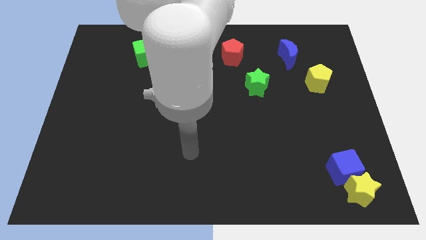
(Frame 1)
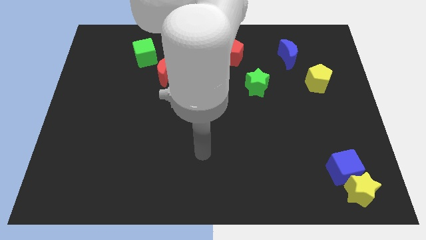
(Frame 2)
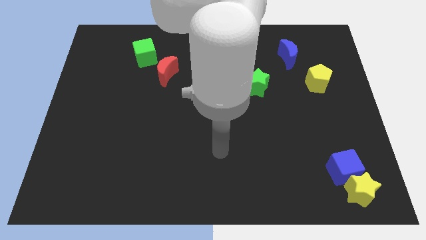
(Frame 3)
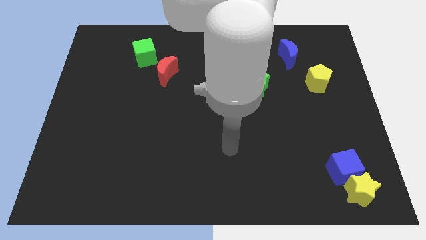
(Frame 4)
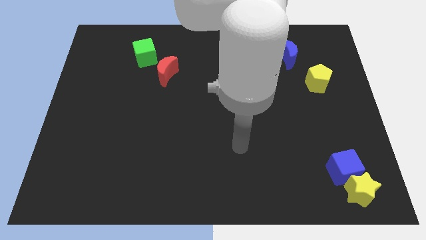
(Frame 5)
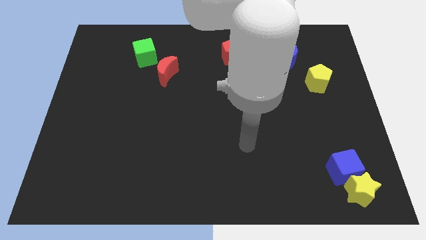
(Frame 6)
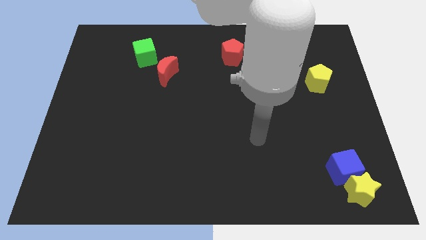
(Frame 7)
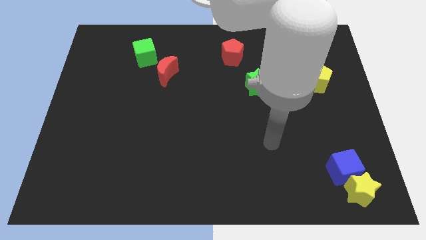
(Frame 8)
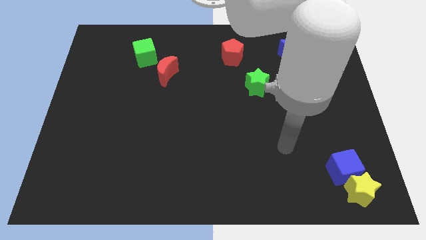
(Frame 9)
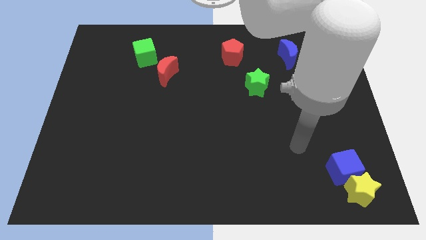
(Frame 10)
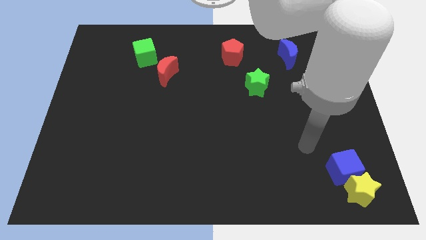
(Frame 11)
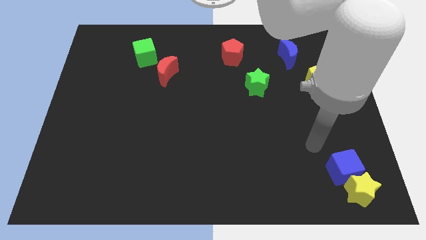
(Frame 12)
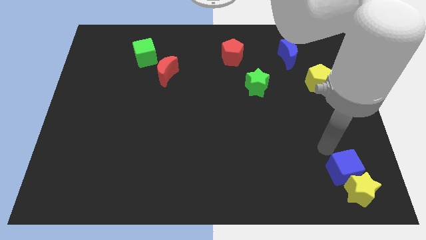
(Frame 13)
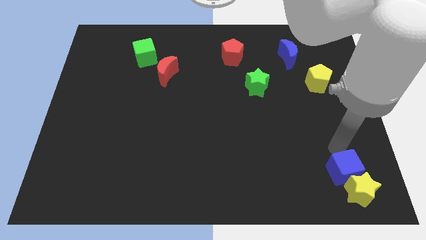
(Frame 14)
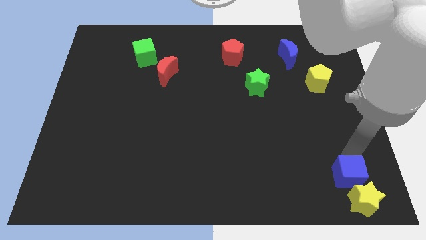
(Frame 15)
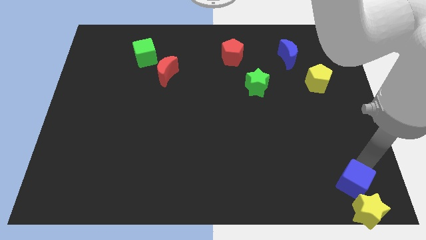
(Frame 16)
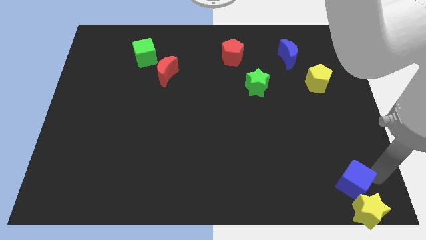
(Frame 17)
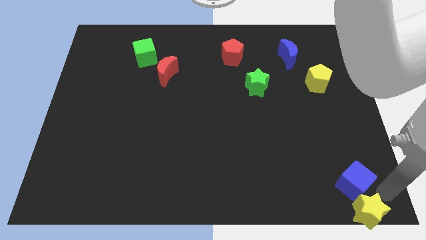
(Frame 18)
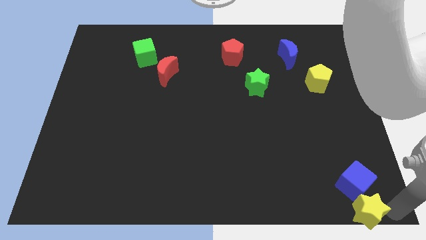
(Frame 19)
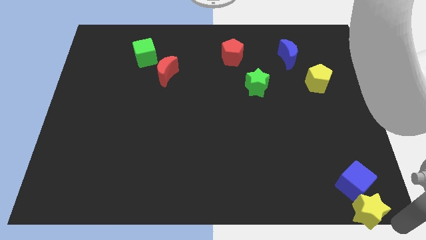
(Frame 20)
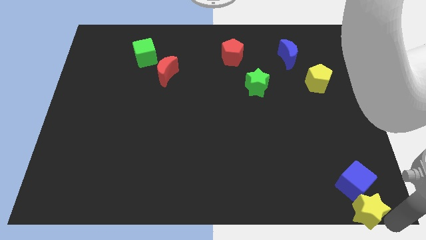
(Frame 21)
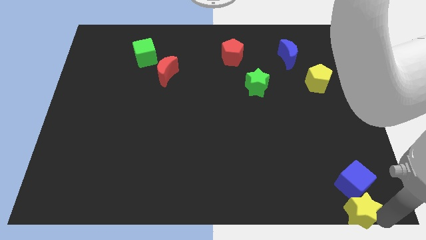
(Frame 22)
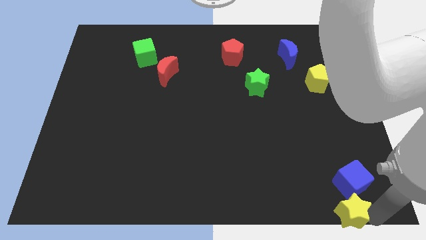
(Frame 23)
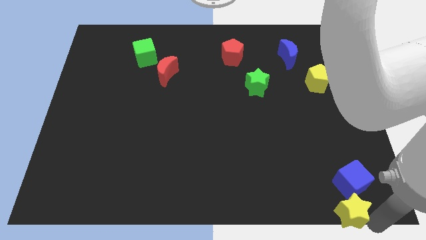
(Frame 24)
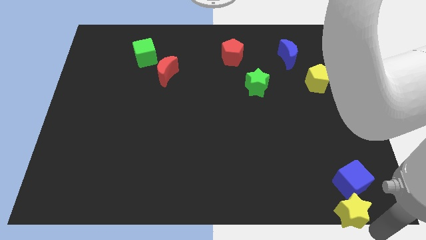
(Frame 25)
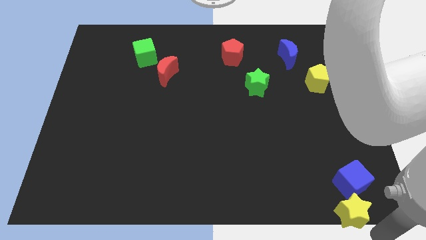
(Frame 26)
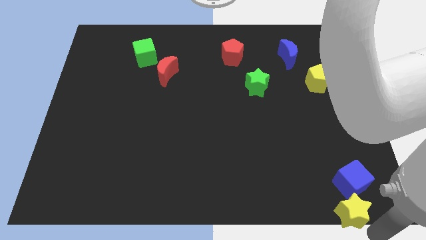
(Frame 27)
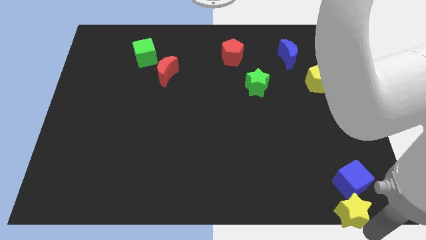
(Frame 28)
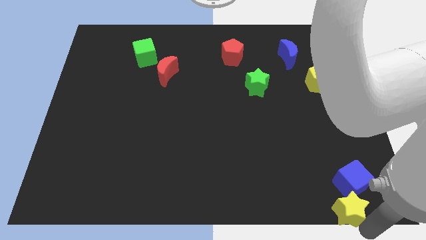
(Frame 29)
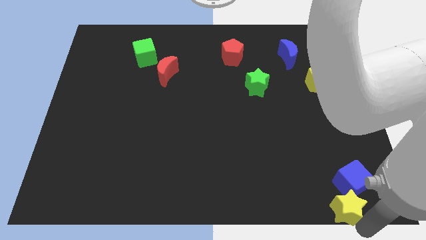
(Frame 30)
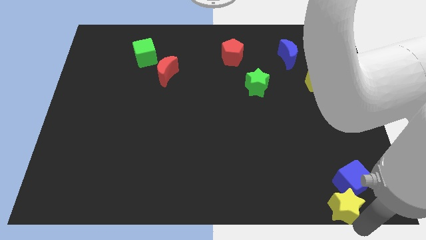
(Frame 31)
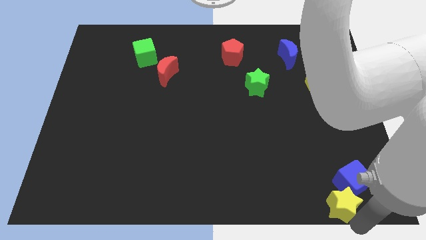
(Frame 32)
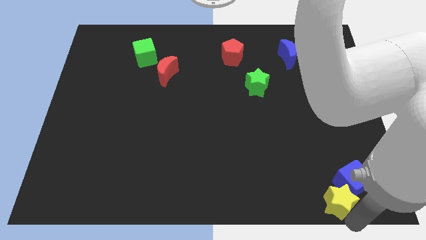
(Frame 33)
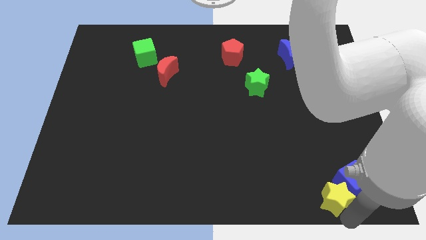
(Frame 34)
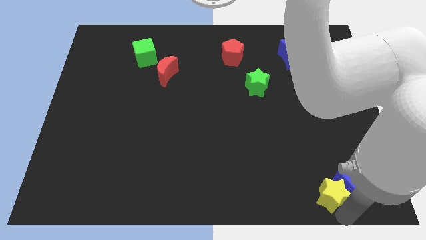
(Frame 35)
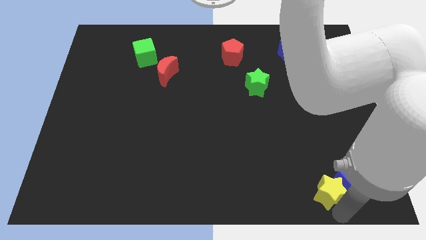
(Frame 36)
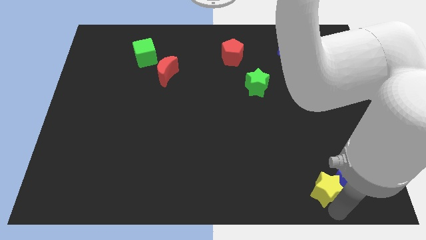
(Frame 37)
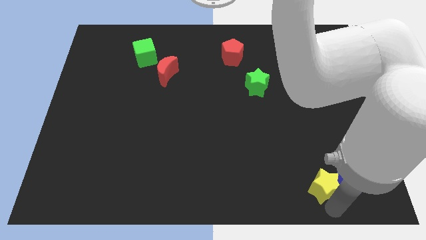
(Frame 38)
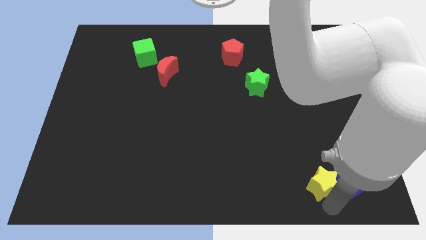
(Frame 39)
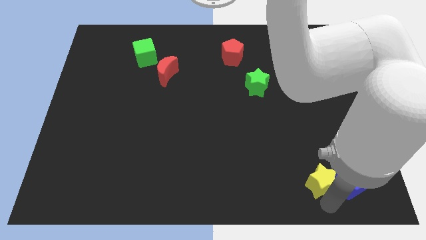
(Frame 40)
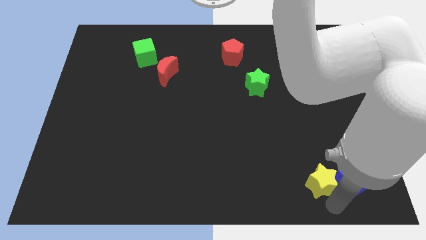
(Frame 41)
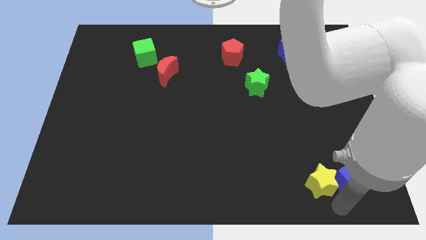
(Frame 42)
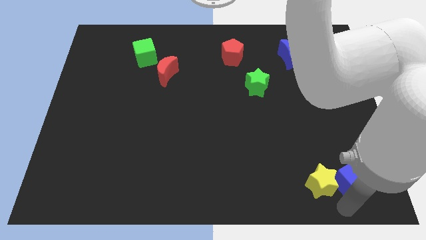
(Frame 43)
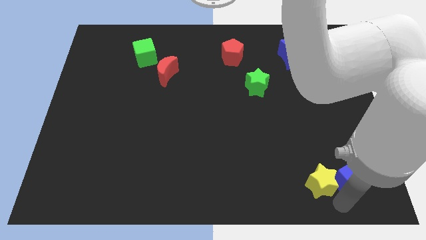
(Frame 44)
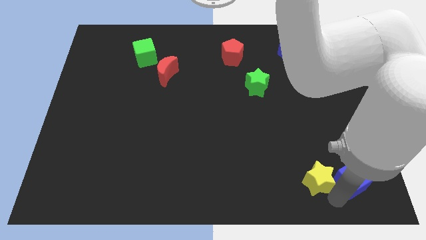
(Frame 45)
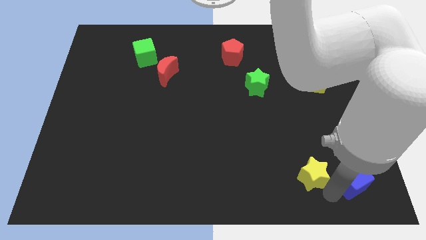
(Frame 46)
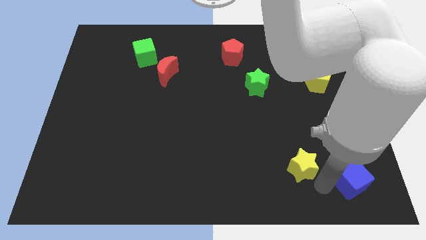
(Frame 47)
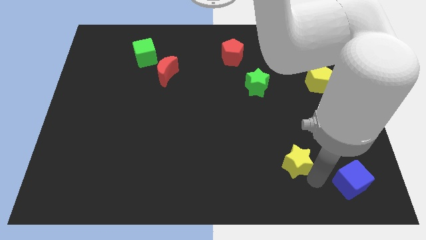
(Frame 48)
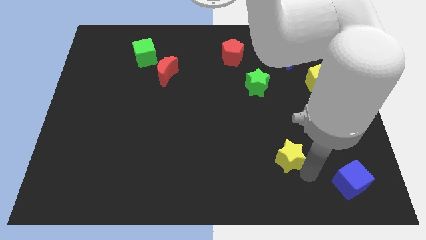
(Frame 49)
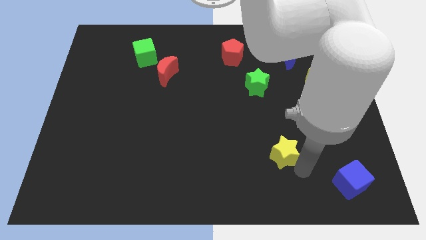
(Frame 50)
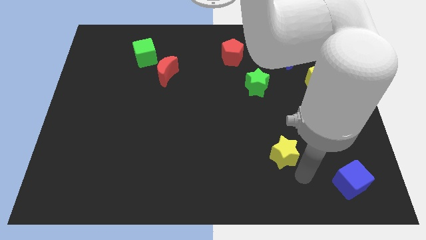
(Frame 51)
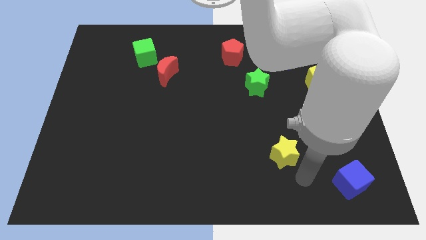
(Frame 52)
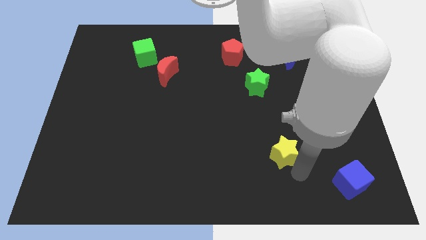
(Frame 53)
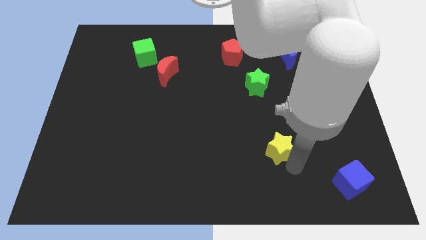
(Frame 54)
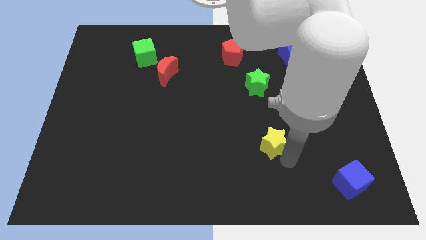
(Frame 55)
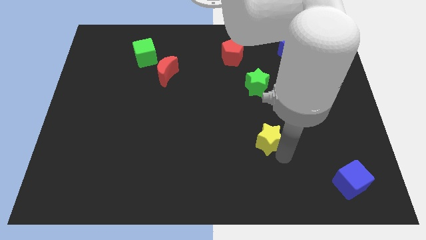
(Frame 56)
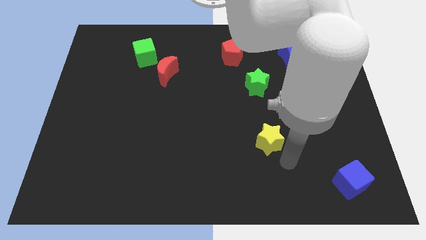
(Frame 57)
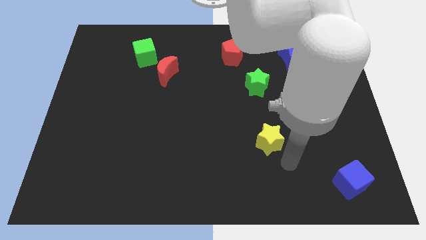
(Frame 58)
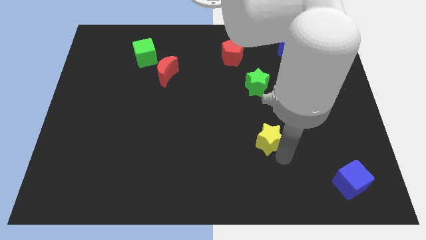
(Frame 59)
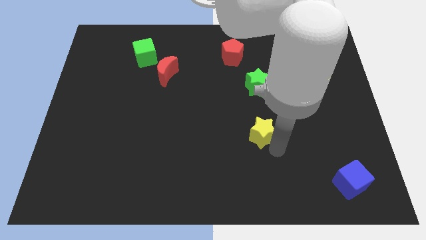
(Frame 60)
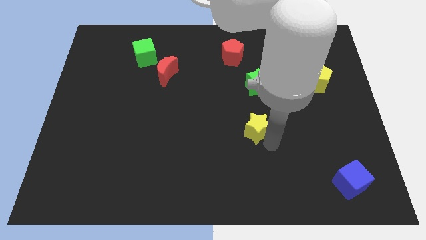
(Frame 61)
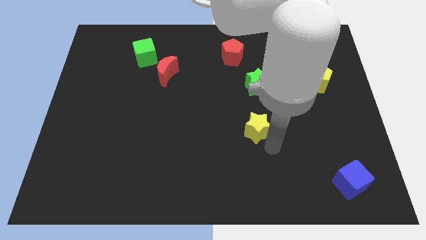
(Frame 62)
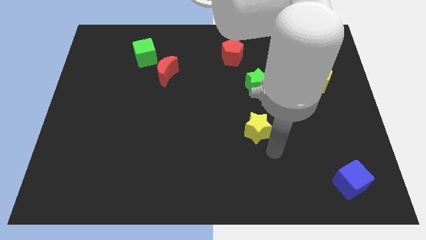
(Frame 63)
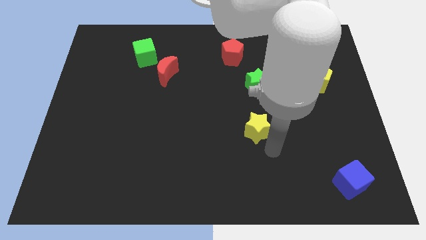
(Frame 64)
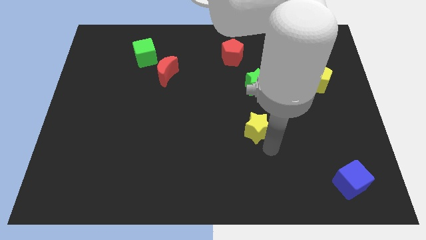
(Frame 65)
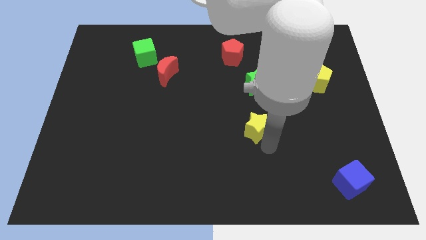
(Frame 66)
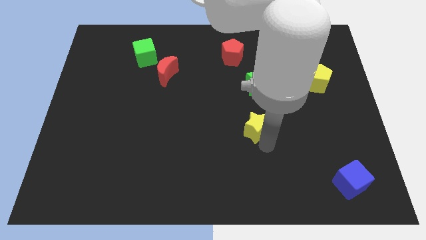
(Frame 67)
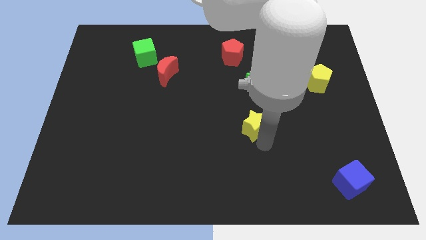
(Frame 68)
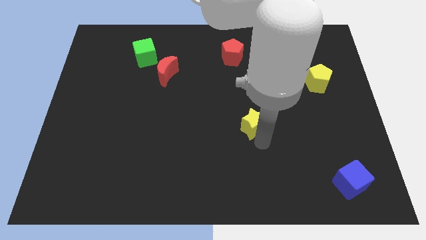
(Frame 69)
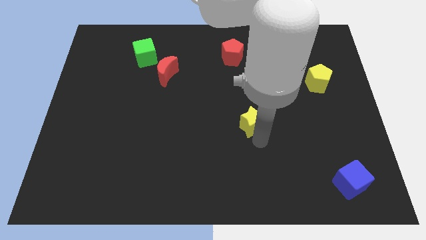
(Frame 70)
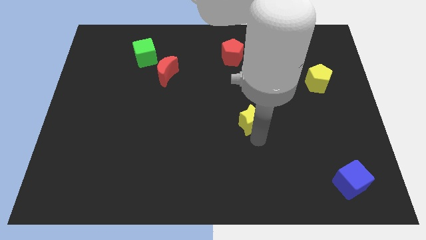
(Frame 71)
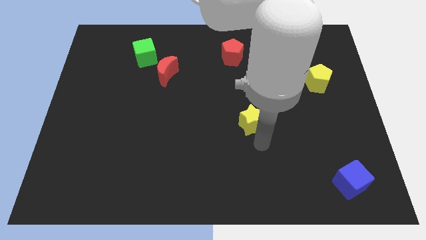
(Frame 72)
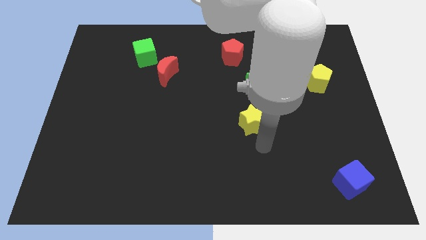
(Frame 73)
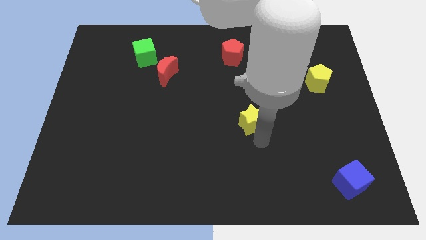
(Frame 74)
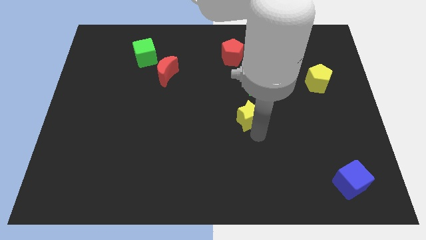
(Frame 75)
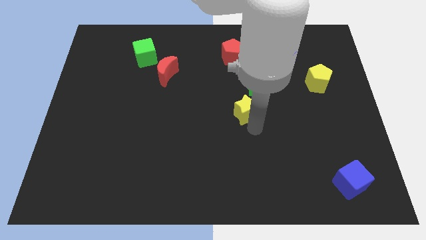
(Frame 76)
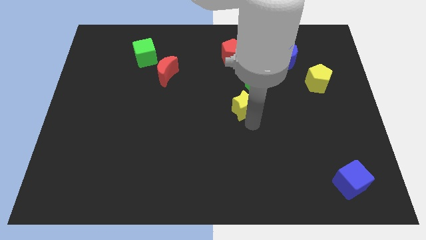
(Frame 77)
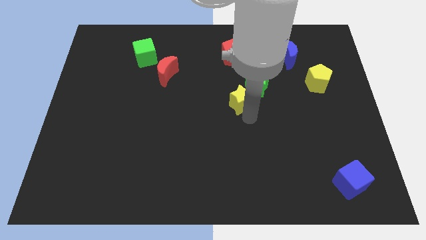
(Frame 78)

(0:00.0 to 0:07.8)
push the yellow star below the red pentagon
